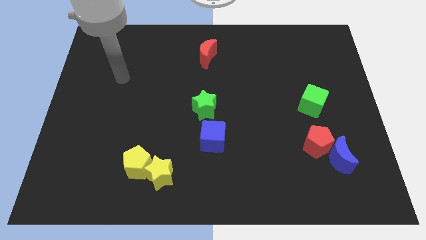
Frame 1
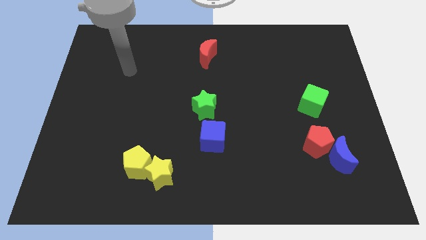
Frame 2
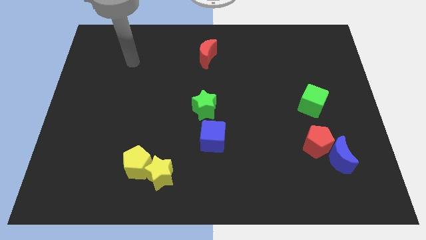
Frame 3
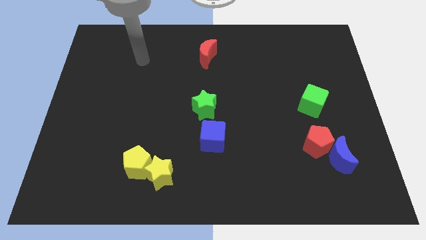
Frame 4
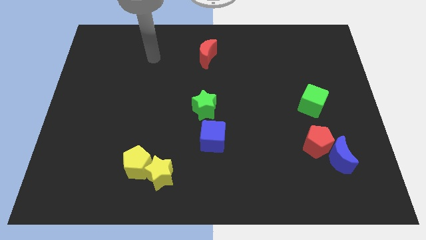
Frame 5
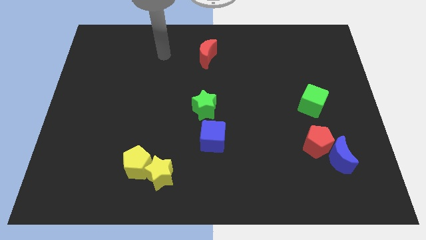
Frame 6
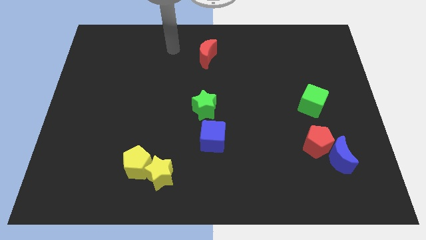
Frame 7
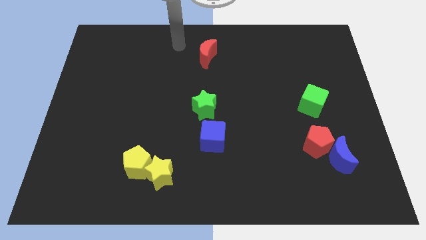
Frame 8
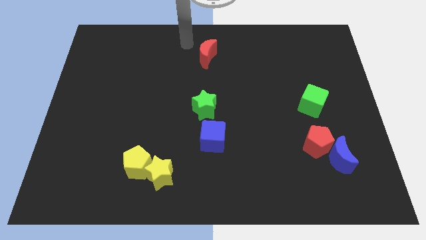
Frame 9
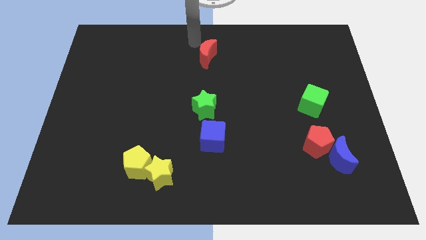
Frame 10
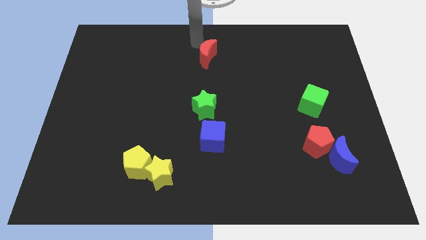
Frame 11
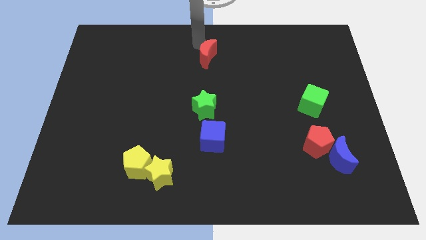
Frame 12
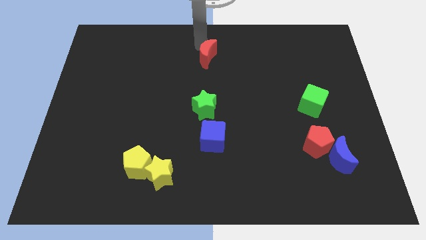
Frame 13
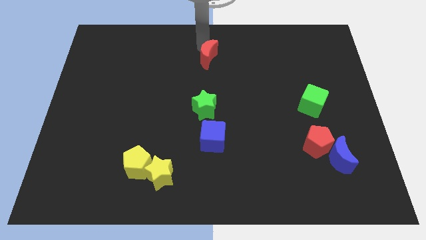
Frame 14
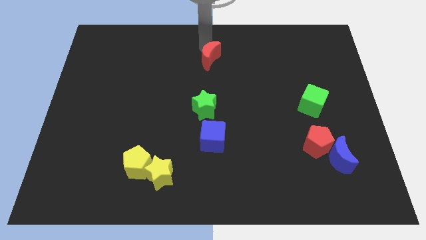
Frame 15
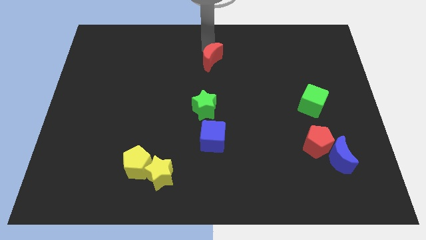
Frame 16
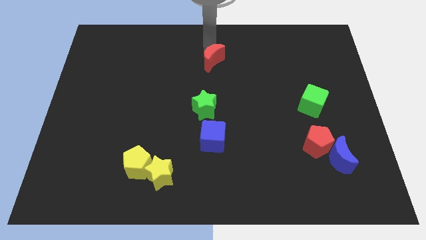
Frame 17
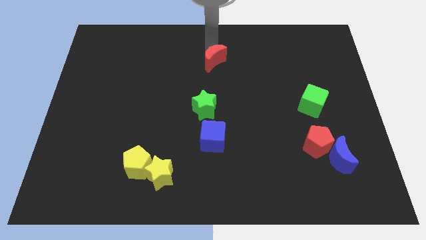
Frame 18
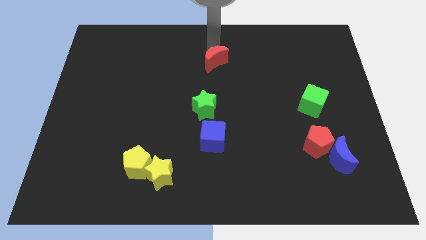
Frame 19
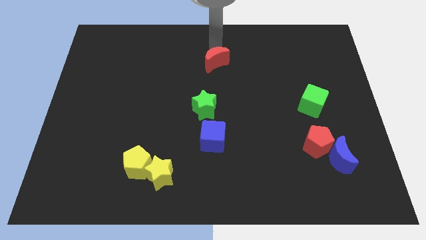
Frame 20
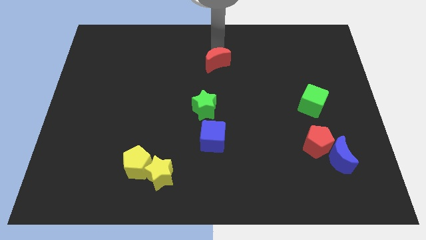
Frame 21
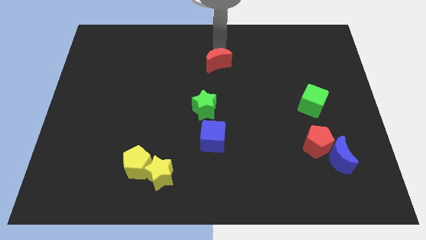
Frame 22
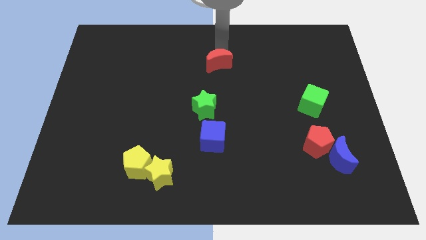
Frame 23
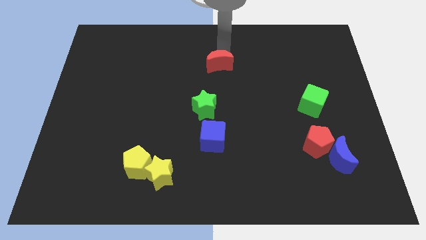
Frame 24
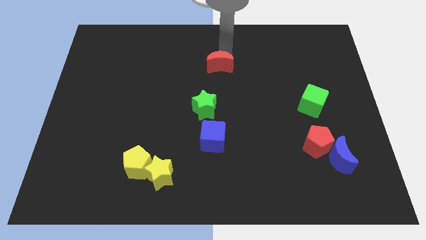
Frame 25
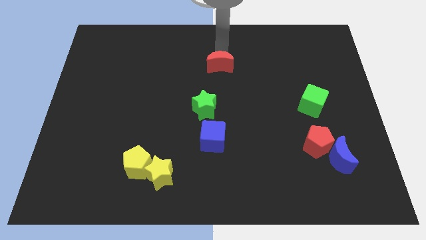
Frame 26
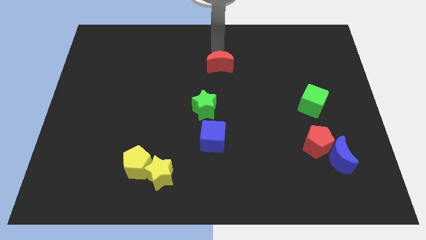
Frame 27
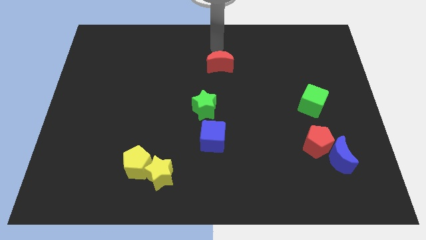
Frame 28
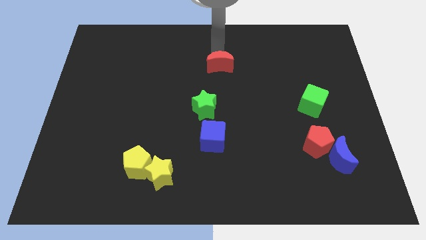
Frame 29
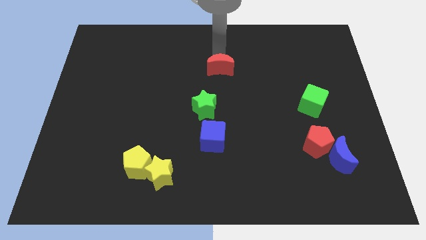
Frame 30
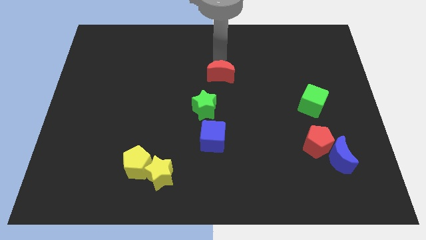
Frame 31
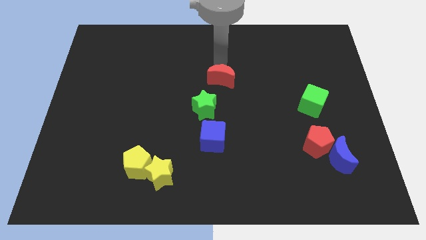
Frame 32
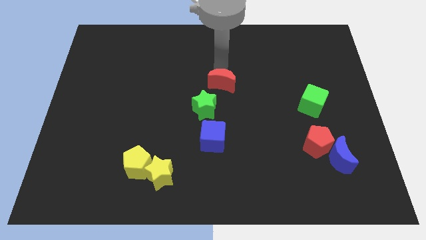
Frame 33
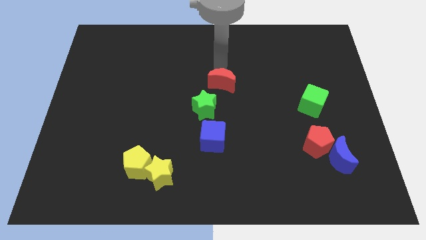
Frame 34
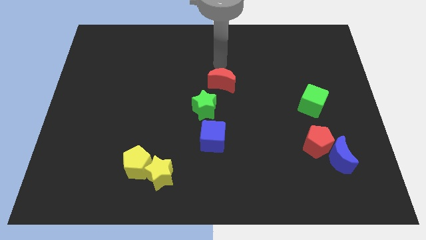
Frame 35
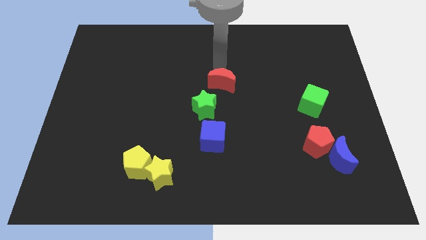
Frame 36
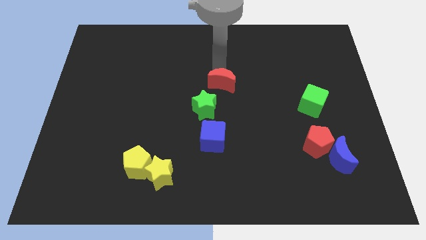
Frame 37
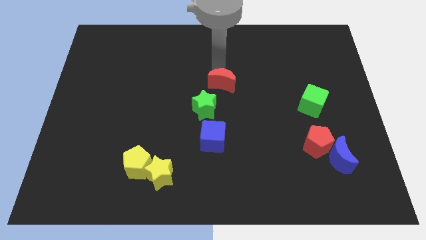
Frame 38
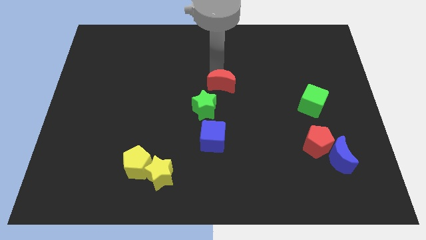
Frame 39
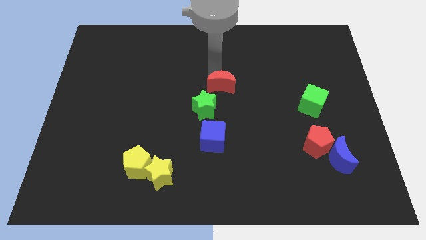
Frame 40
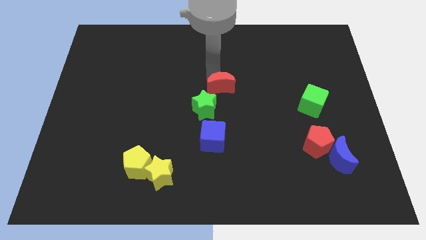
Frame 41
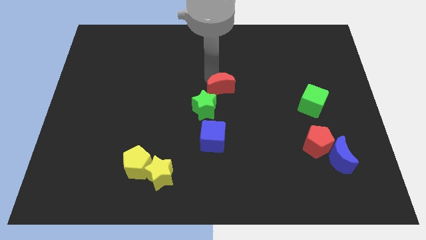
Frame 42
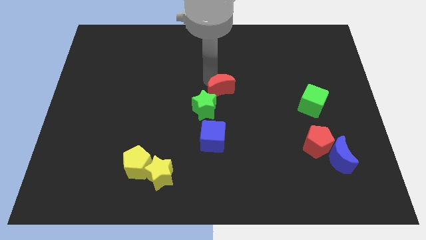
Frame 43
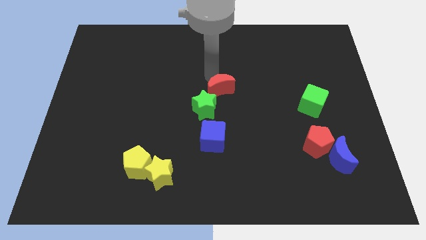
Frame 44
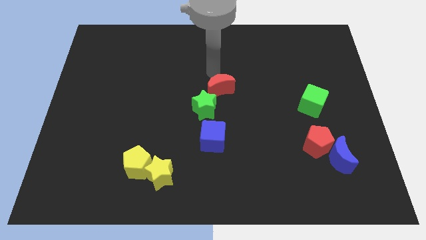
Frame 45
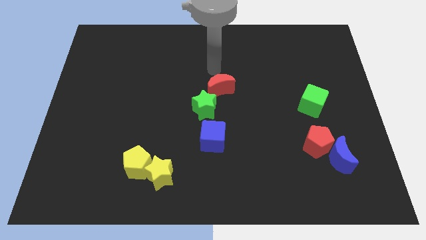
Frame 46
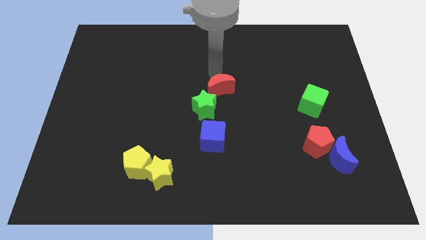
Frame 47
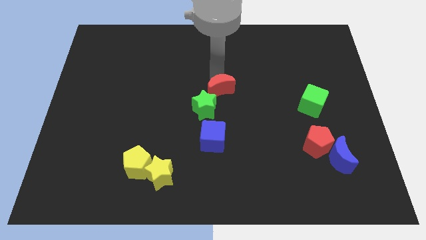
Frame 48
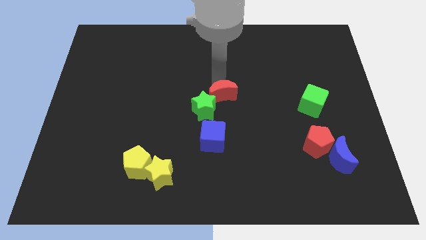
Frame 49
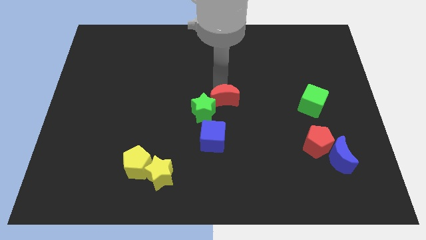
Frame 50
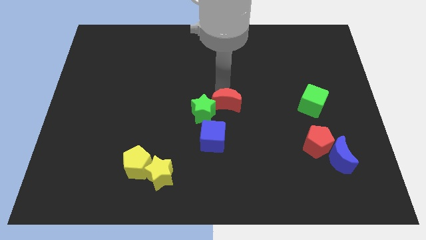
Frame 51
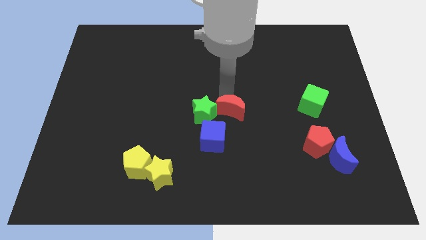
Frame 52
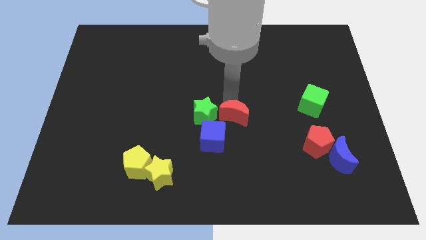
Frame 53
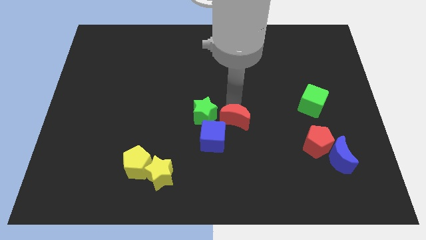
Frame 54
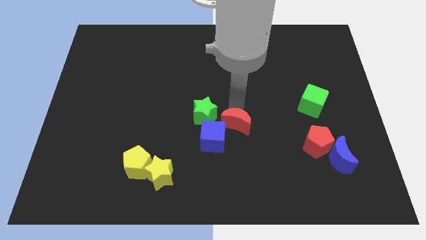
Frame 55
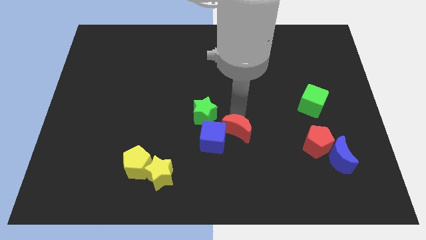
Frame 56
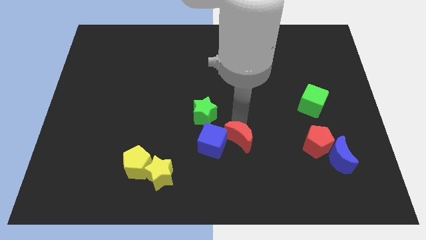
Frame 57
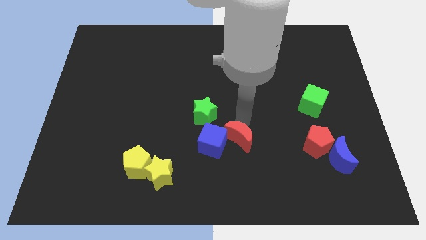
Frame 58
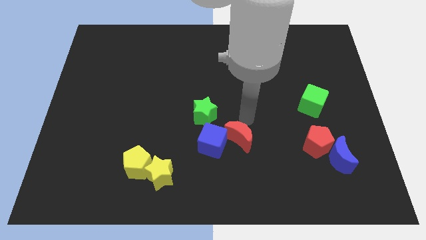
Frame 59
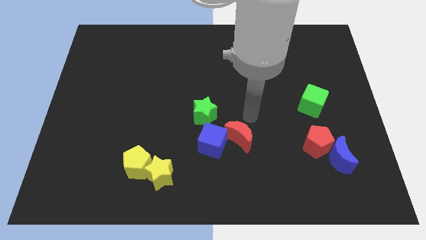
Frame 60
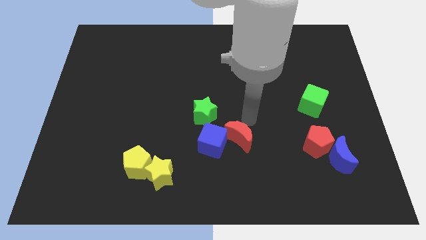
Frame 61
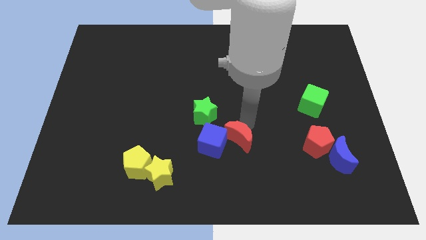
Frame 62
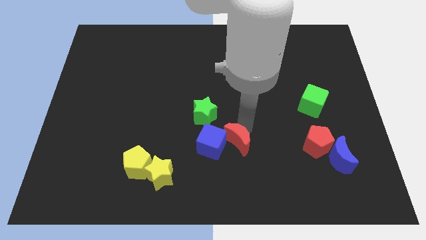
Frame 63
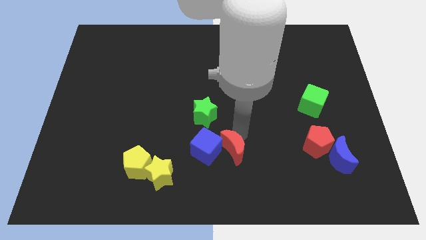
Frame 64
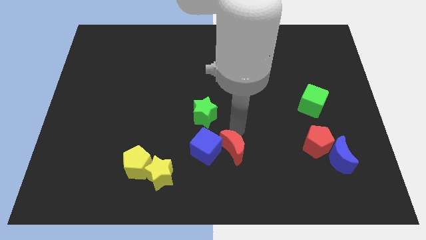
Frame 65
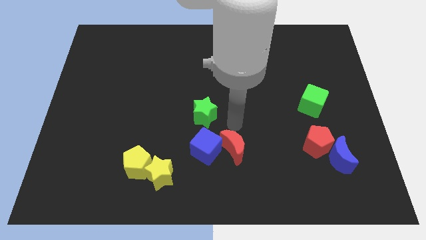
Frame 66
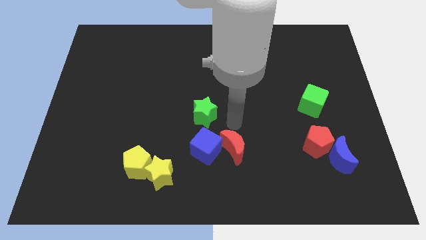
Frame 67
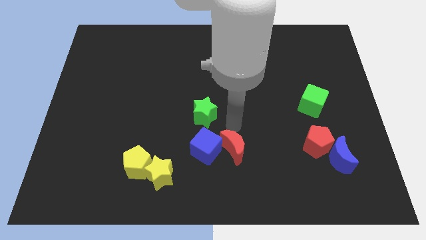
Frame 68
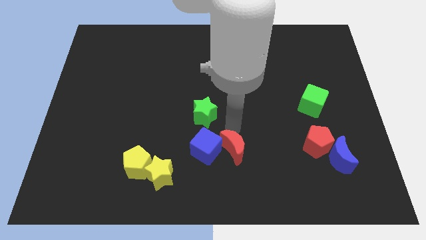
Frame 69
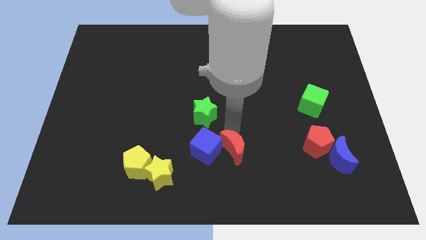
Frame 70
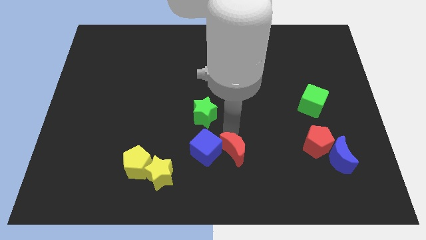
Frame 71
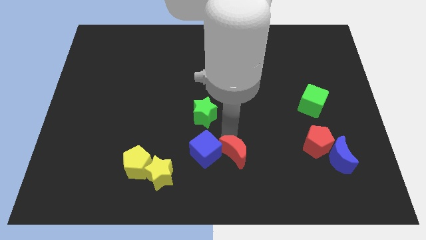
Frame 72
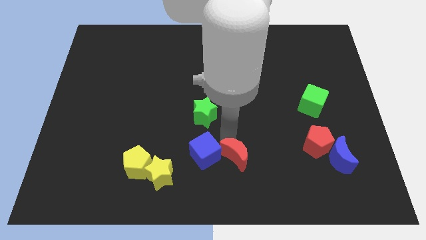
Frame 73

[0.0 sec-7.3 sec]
push the red moon to the bottom
